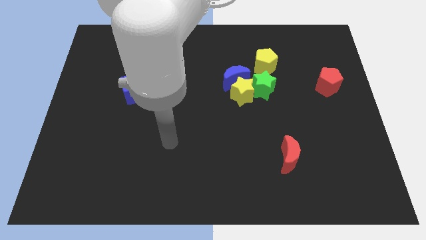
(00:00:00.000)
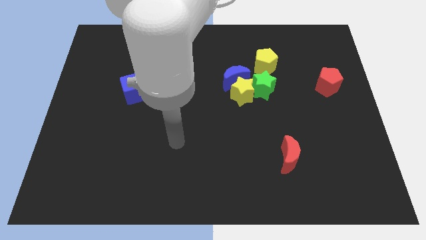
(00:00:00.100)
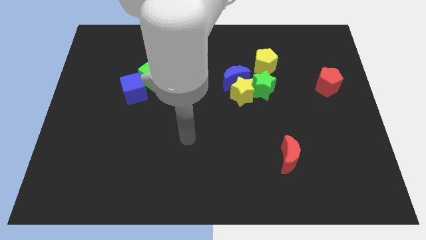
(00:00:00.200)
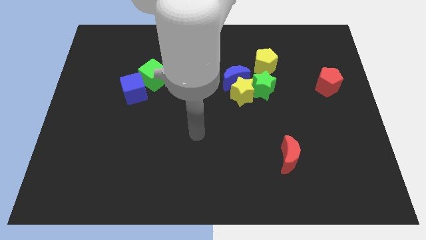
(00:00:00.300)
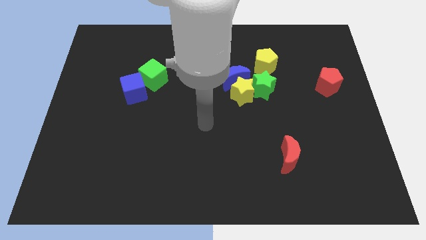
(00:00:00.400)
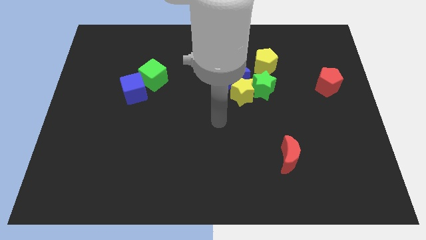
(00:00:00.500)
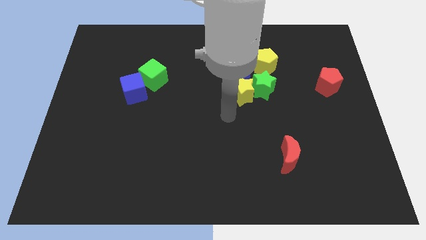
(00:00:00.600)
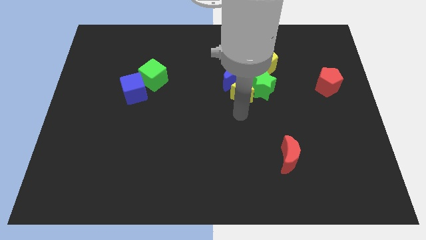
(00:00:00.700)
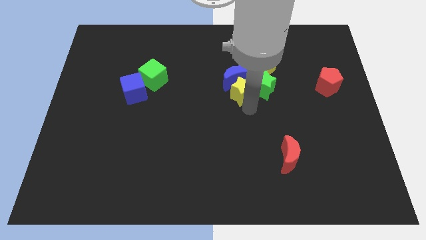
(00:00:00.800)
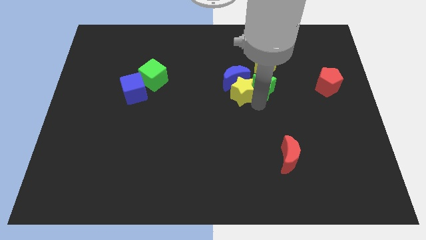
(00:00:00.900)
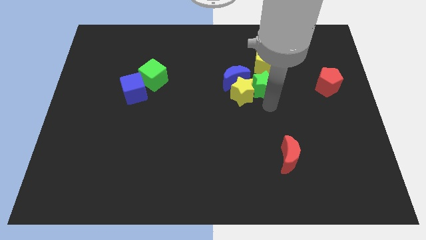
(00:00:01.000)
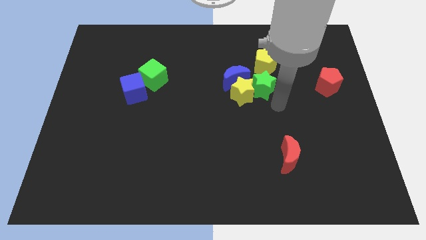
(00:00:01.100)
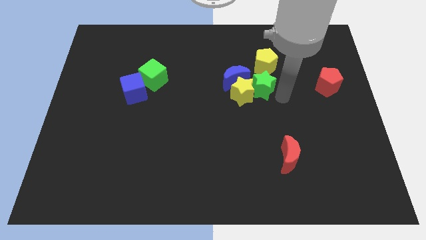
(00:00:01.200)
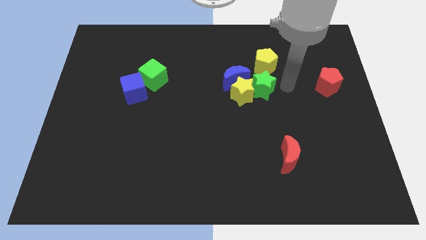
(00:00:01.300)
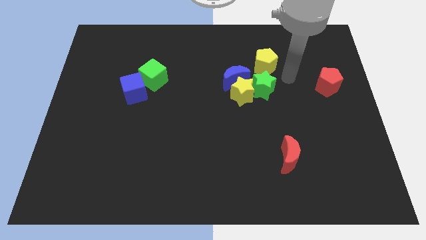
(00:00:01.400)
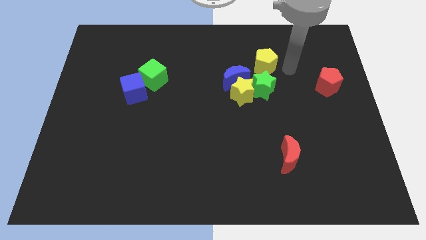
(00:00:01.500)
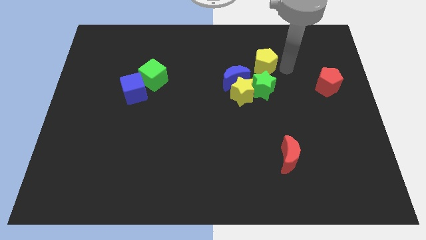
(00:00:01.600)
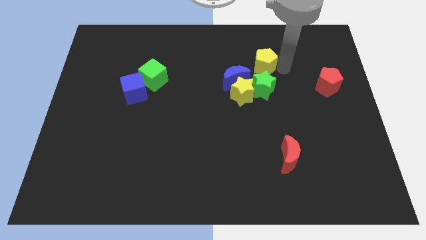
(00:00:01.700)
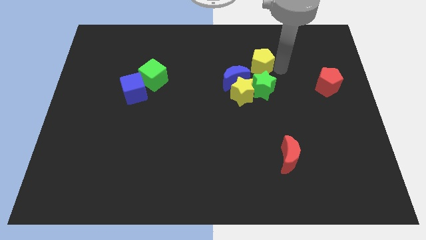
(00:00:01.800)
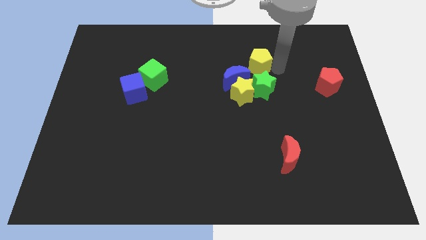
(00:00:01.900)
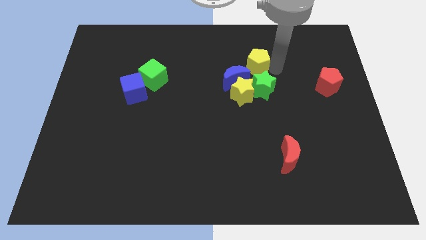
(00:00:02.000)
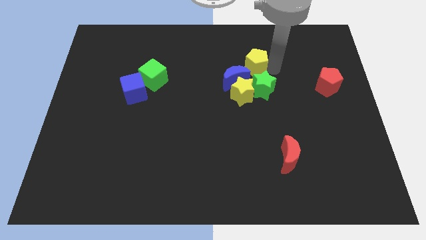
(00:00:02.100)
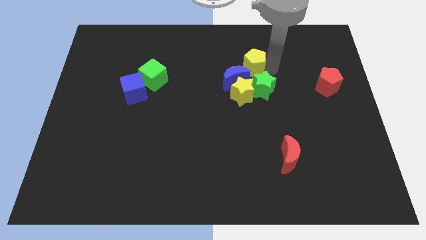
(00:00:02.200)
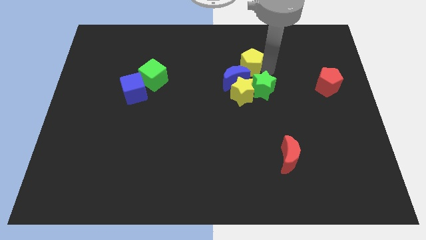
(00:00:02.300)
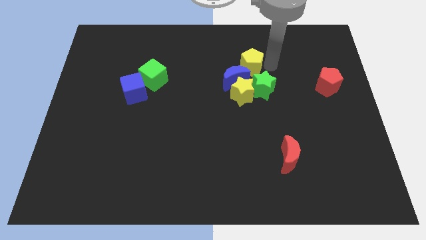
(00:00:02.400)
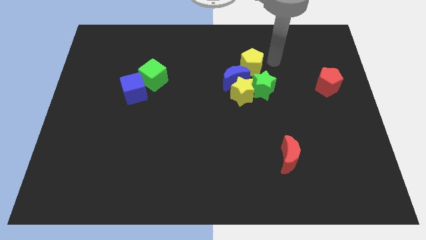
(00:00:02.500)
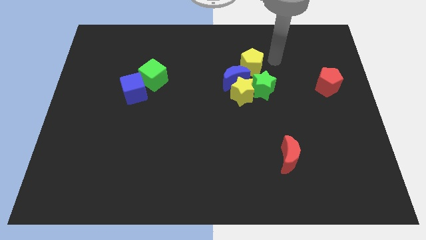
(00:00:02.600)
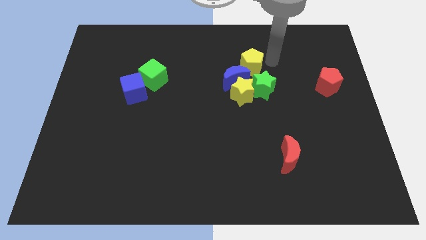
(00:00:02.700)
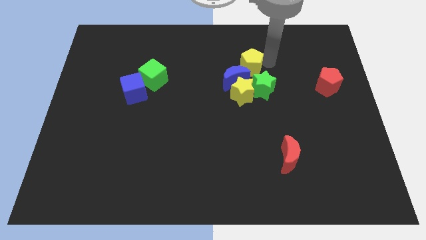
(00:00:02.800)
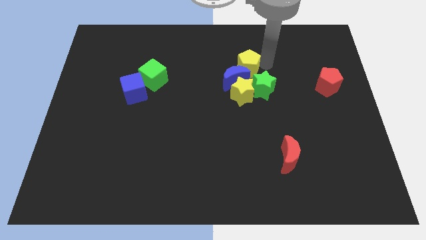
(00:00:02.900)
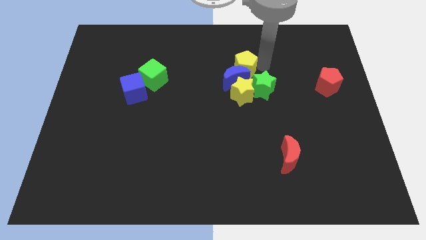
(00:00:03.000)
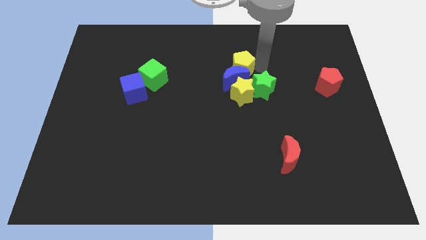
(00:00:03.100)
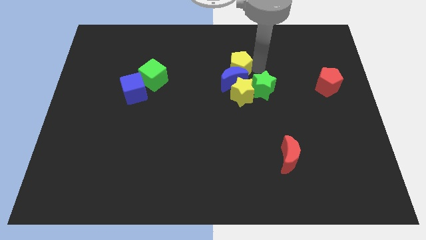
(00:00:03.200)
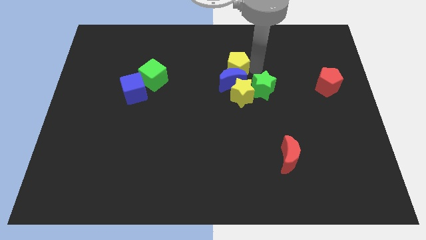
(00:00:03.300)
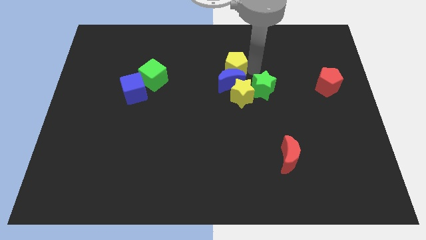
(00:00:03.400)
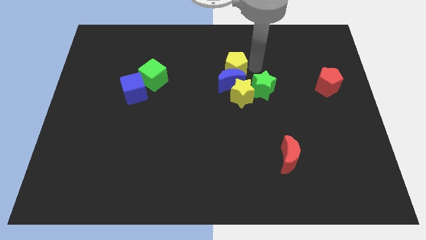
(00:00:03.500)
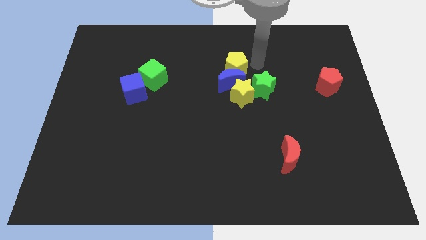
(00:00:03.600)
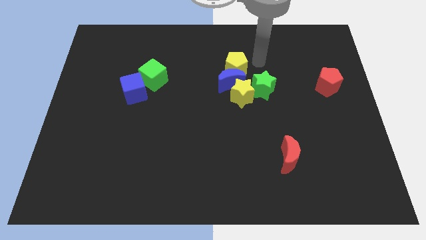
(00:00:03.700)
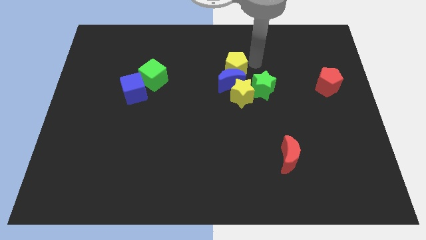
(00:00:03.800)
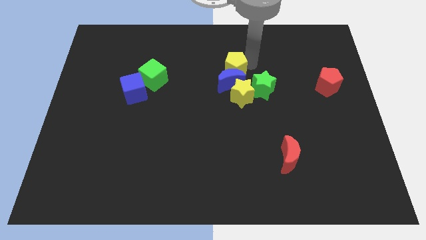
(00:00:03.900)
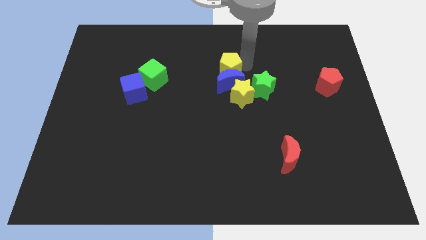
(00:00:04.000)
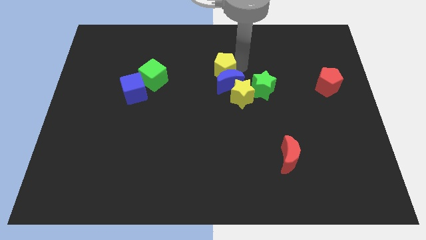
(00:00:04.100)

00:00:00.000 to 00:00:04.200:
move the yellow pentagon downwards and to the left slightly

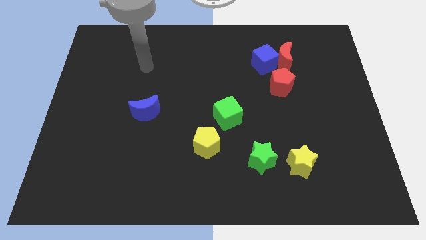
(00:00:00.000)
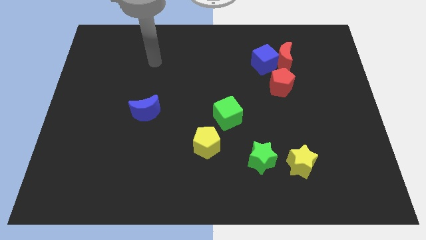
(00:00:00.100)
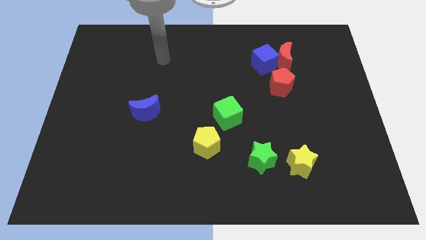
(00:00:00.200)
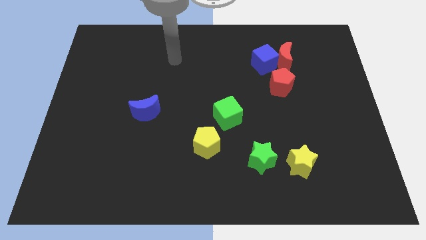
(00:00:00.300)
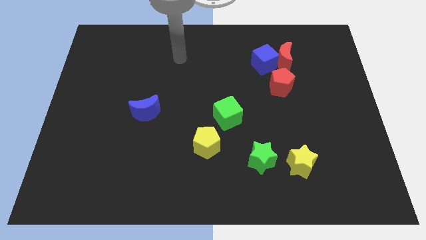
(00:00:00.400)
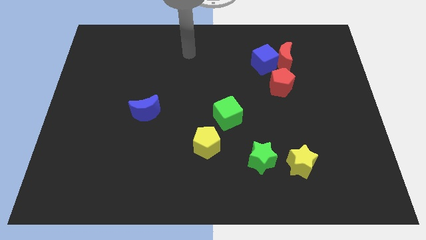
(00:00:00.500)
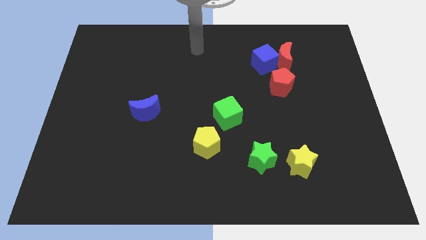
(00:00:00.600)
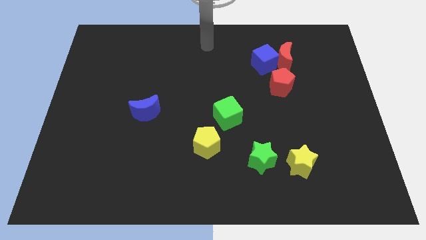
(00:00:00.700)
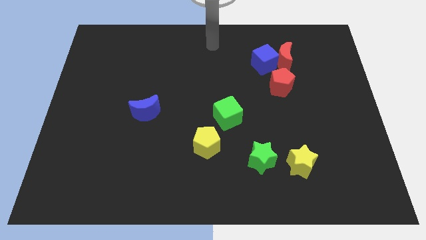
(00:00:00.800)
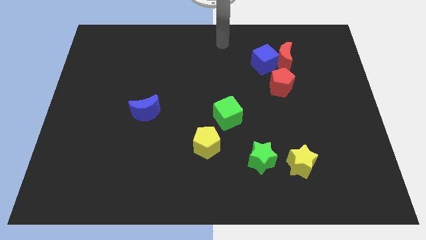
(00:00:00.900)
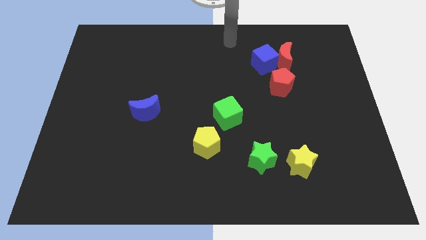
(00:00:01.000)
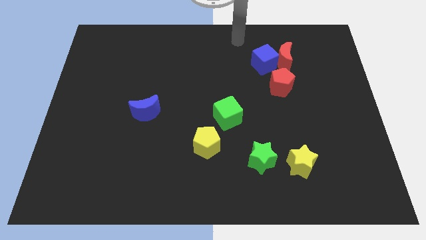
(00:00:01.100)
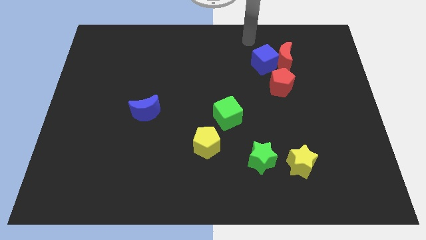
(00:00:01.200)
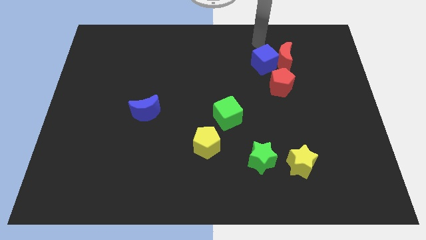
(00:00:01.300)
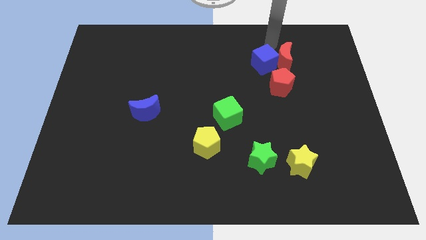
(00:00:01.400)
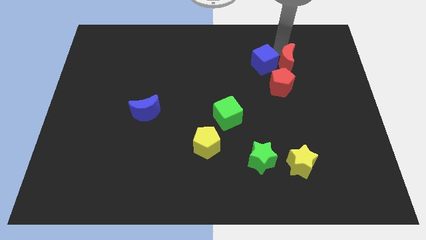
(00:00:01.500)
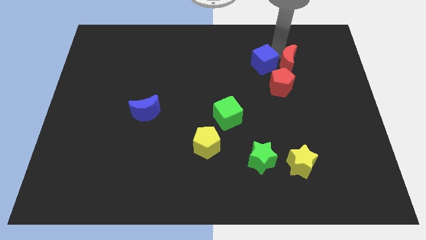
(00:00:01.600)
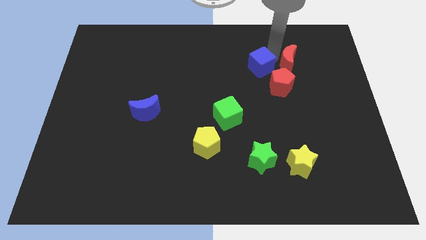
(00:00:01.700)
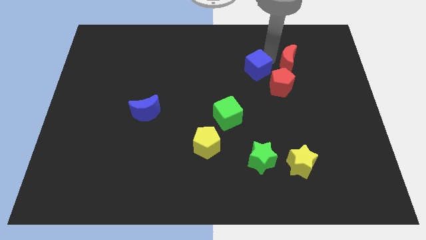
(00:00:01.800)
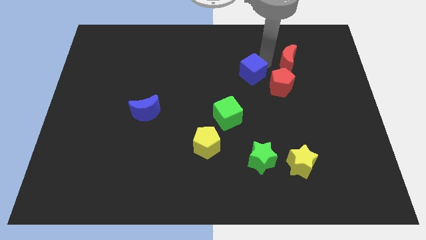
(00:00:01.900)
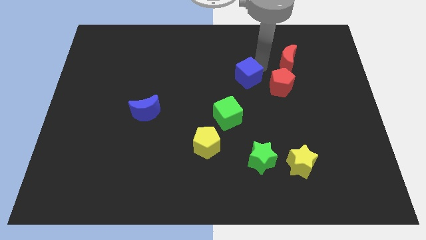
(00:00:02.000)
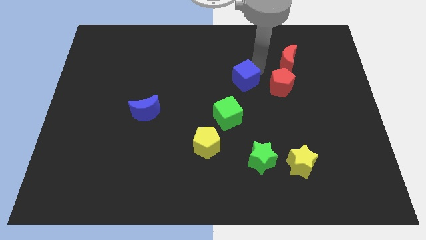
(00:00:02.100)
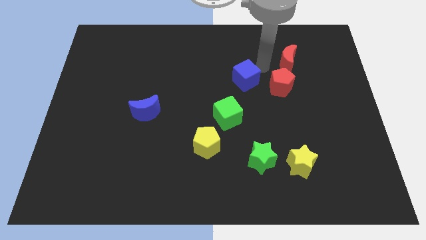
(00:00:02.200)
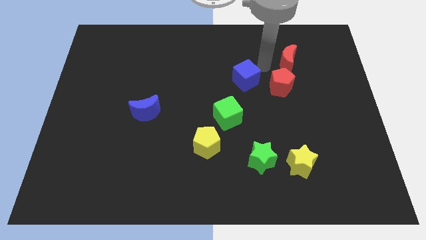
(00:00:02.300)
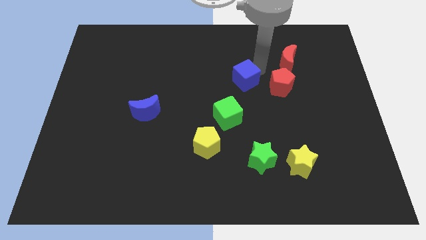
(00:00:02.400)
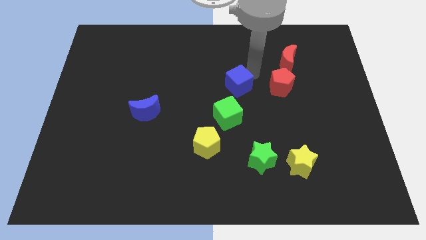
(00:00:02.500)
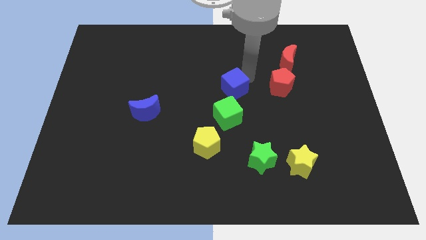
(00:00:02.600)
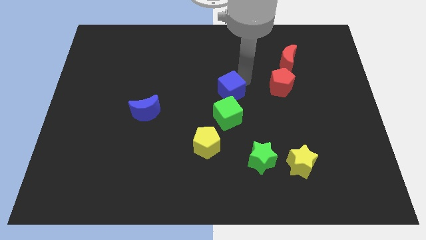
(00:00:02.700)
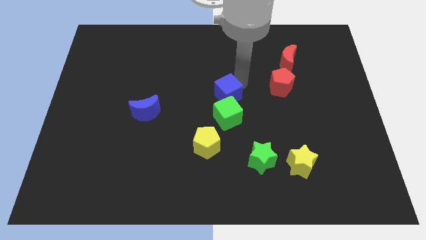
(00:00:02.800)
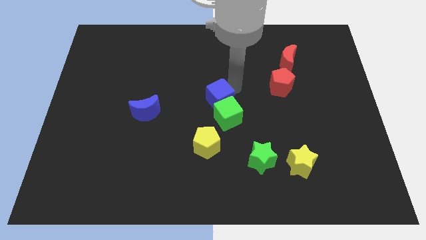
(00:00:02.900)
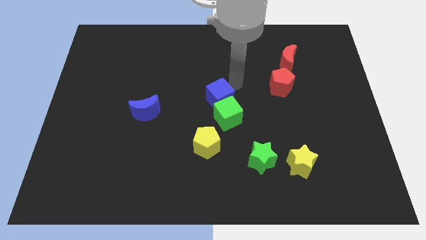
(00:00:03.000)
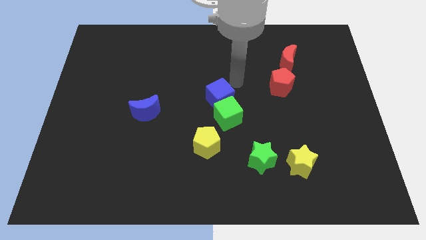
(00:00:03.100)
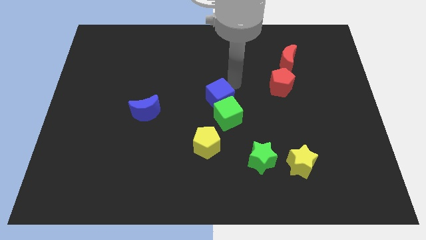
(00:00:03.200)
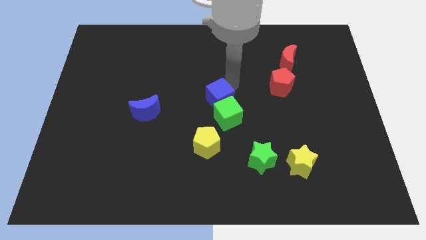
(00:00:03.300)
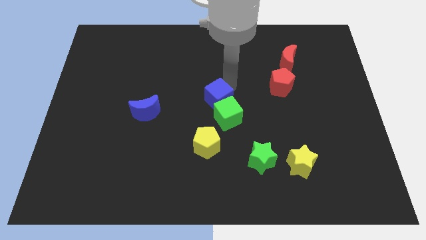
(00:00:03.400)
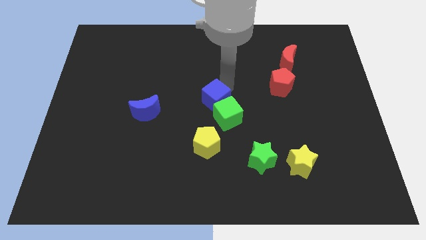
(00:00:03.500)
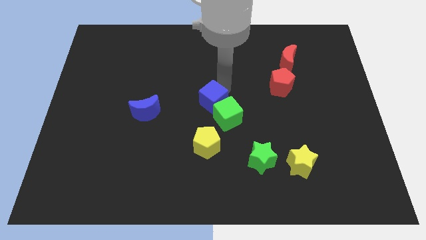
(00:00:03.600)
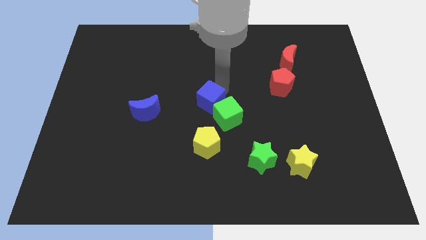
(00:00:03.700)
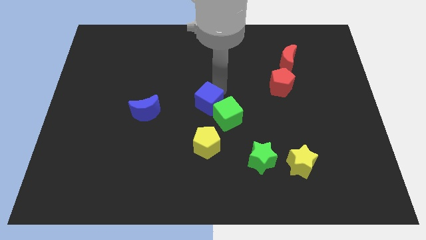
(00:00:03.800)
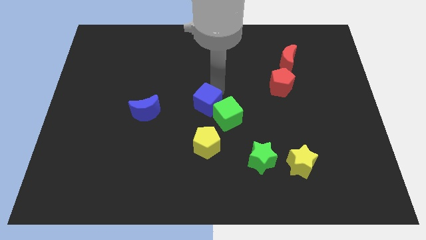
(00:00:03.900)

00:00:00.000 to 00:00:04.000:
move the blue cube diagonally downwards and left

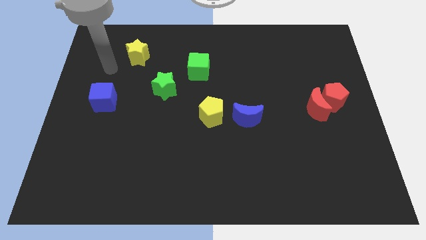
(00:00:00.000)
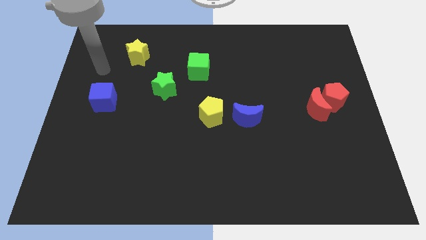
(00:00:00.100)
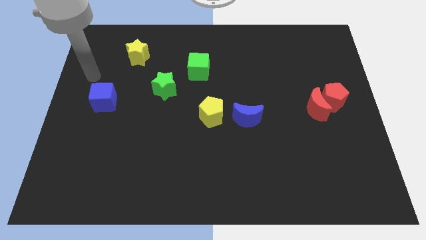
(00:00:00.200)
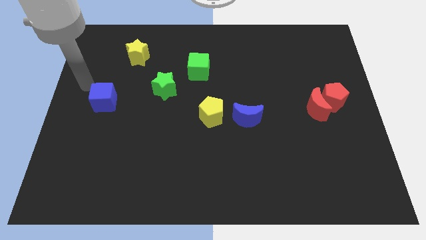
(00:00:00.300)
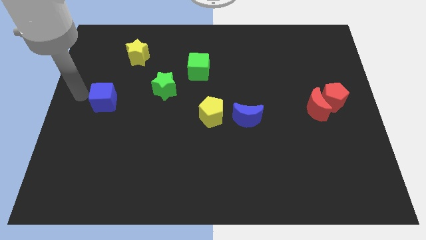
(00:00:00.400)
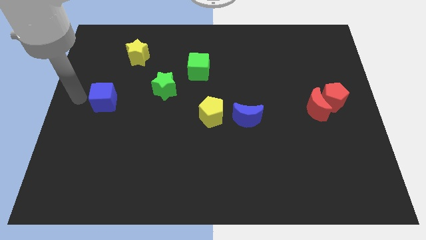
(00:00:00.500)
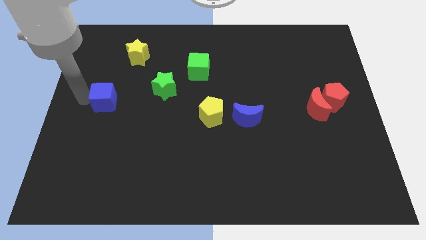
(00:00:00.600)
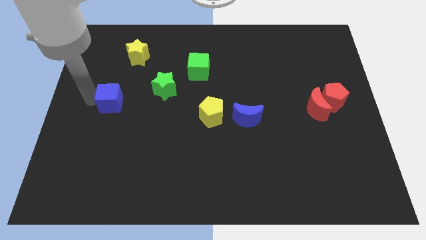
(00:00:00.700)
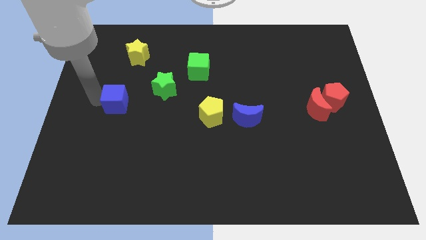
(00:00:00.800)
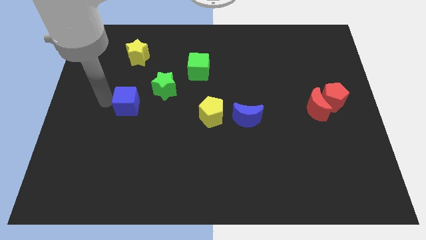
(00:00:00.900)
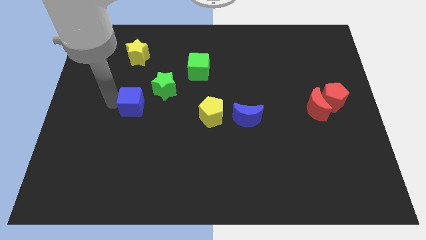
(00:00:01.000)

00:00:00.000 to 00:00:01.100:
move the blue cube to the right a little bit
